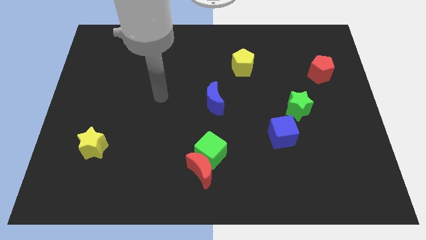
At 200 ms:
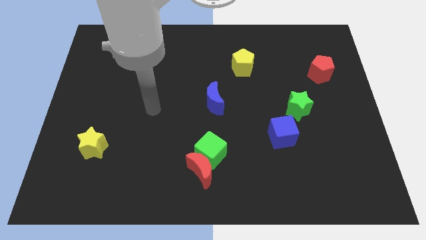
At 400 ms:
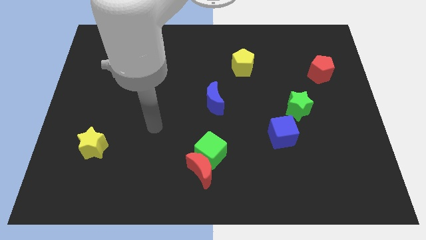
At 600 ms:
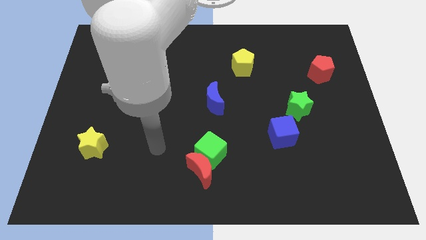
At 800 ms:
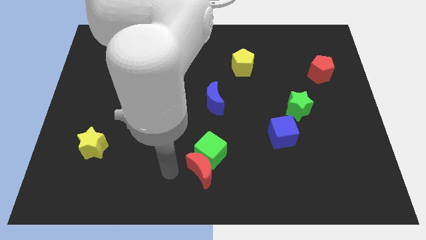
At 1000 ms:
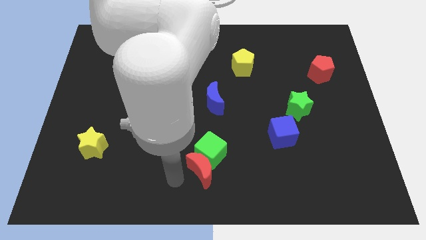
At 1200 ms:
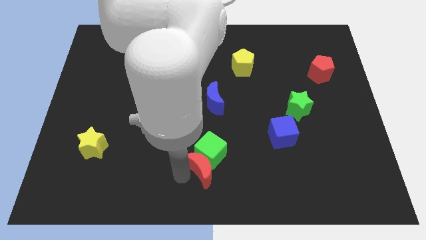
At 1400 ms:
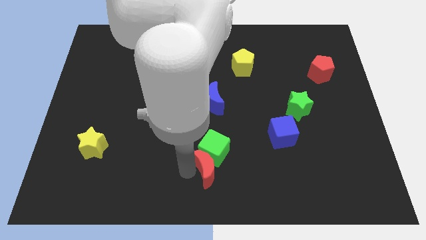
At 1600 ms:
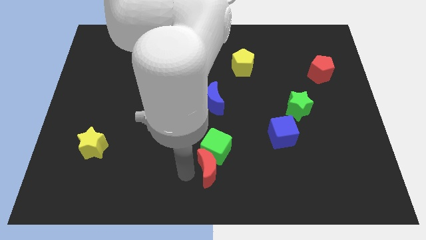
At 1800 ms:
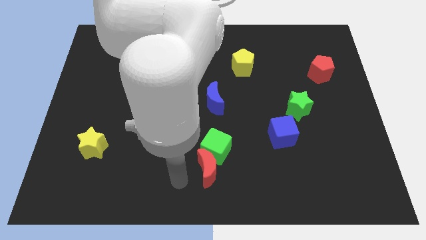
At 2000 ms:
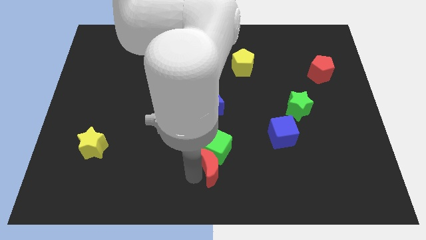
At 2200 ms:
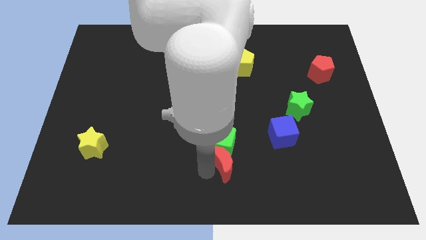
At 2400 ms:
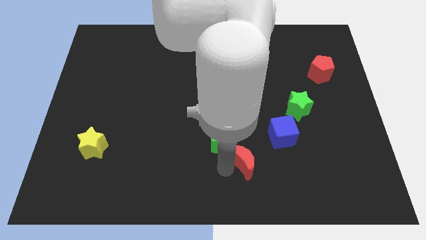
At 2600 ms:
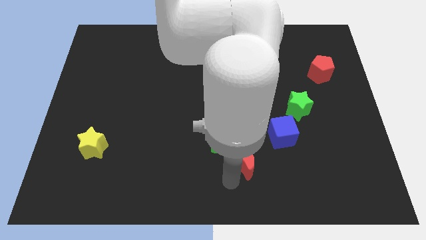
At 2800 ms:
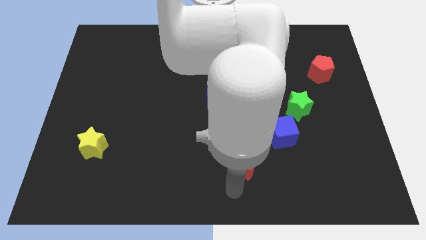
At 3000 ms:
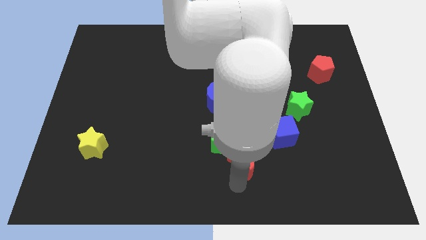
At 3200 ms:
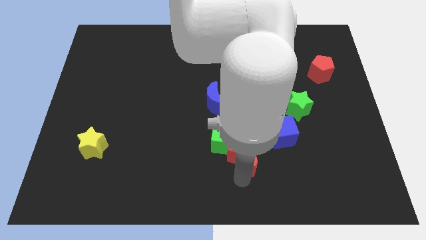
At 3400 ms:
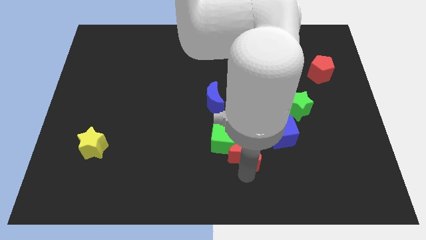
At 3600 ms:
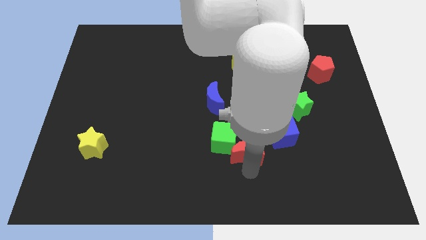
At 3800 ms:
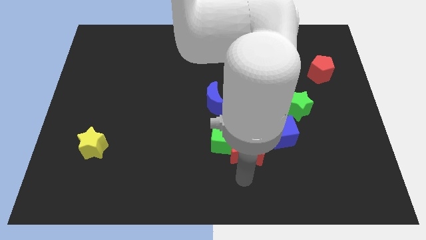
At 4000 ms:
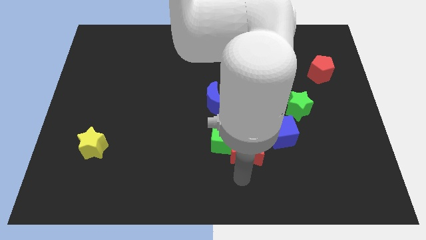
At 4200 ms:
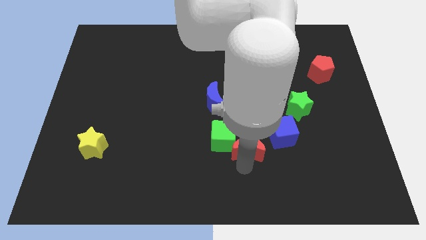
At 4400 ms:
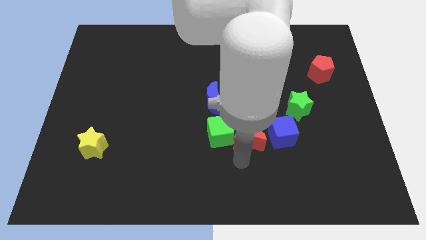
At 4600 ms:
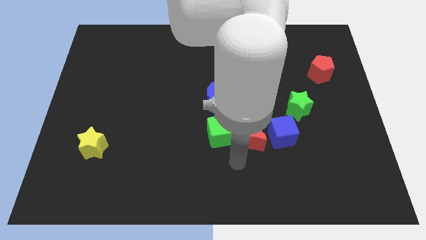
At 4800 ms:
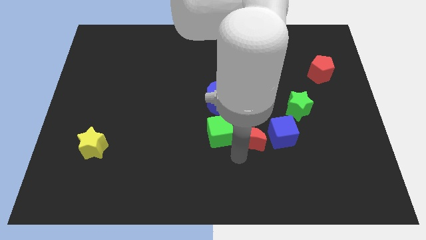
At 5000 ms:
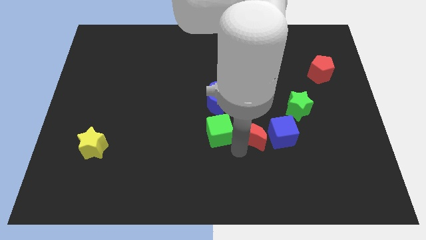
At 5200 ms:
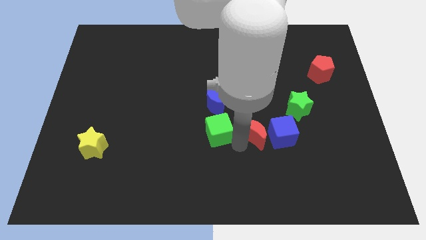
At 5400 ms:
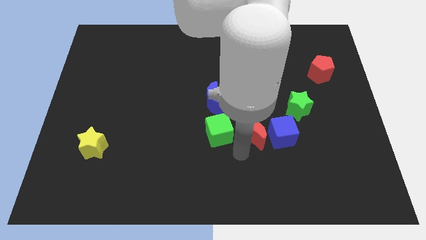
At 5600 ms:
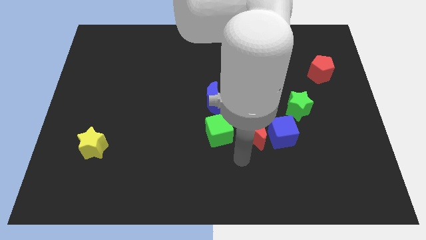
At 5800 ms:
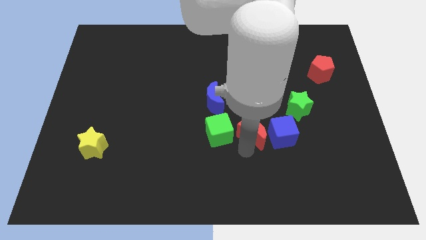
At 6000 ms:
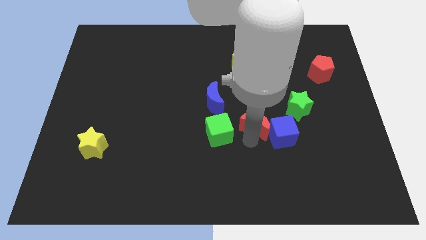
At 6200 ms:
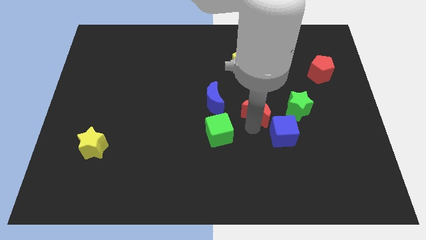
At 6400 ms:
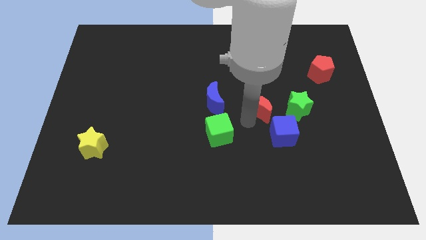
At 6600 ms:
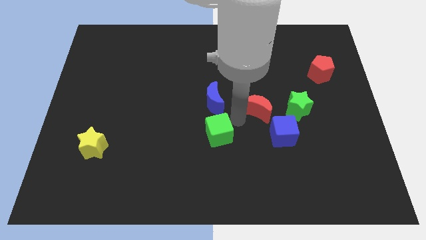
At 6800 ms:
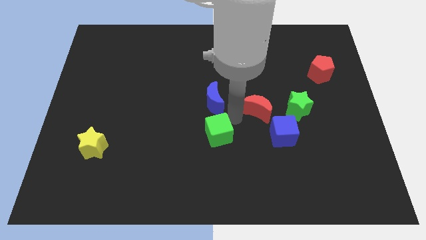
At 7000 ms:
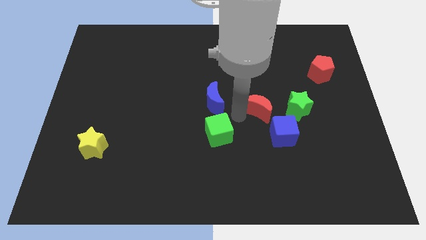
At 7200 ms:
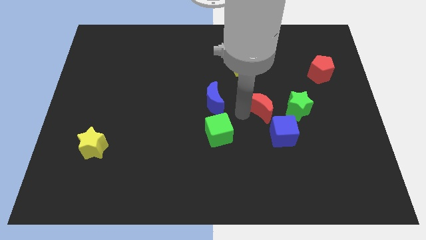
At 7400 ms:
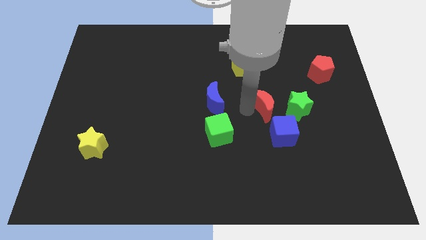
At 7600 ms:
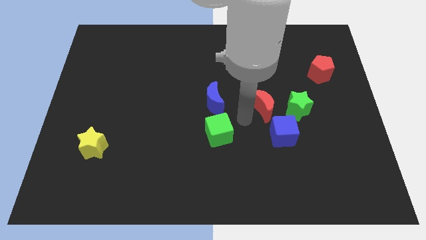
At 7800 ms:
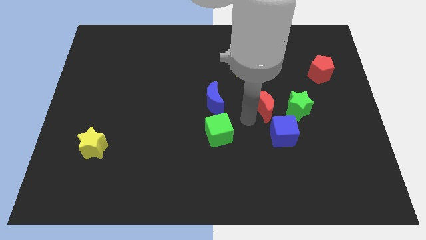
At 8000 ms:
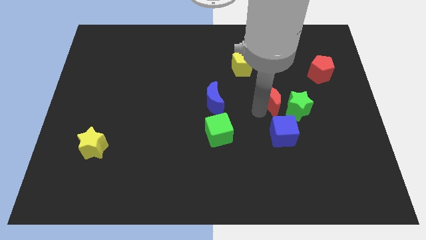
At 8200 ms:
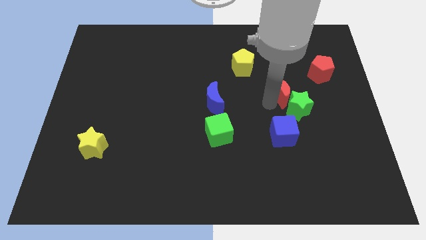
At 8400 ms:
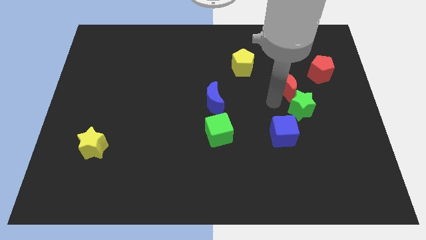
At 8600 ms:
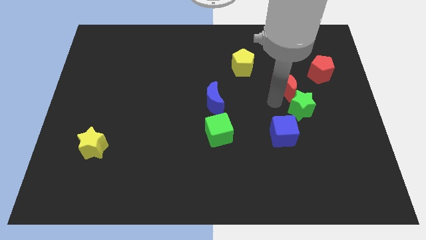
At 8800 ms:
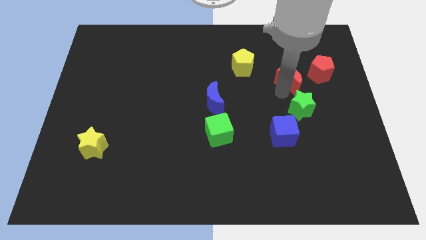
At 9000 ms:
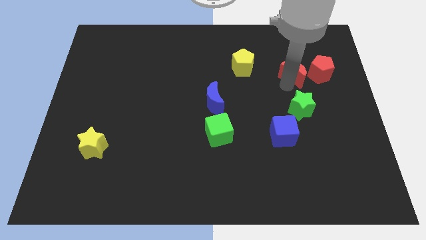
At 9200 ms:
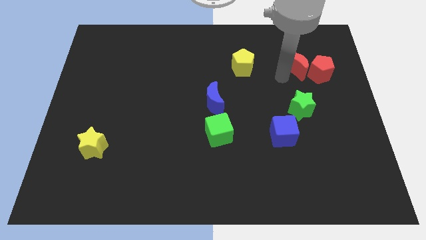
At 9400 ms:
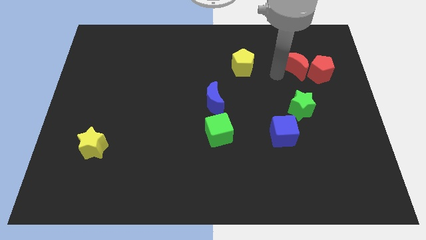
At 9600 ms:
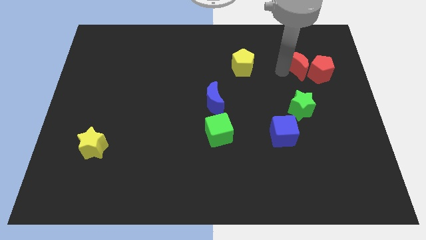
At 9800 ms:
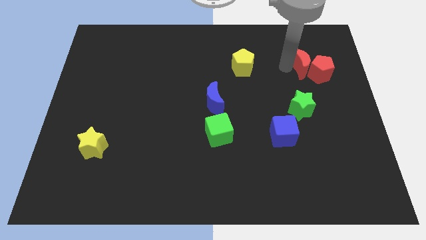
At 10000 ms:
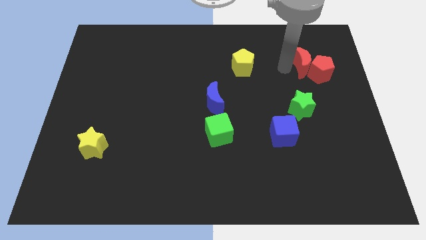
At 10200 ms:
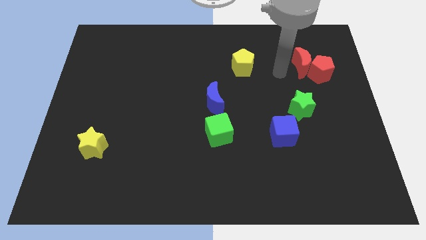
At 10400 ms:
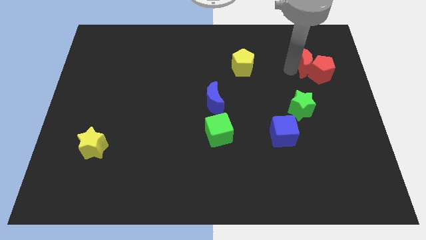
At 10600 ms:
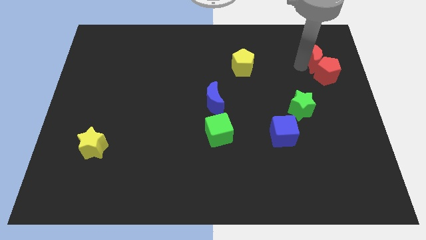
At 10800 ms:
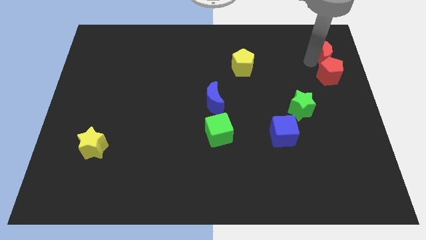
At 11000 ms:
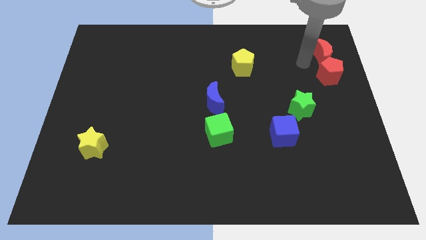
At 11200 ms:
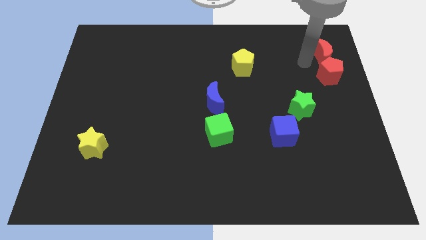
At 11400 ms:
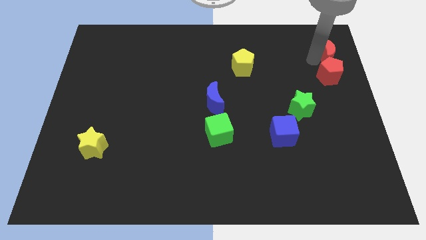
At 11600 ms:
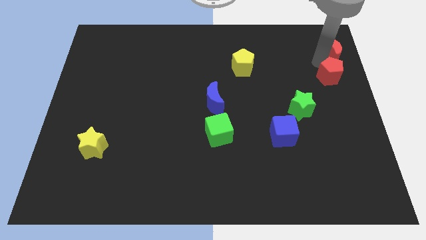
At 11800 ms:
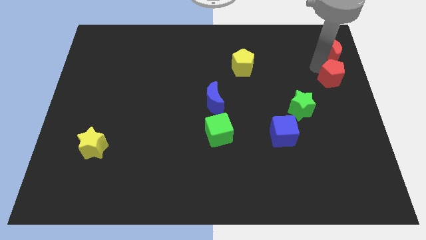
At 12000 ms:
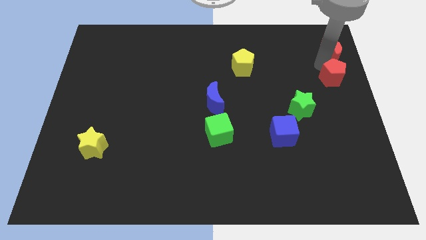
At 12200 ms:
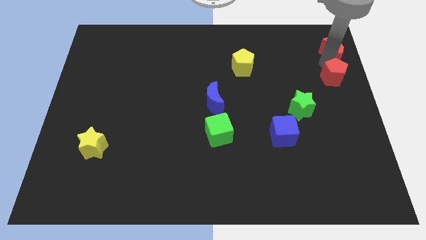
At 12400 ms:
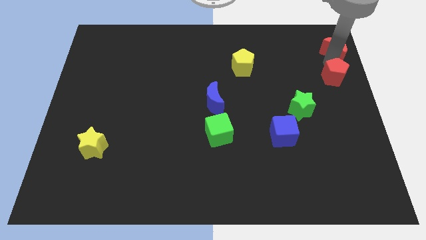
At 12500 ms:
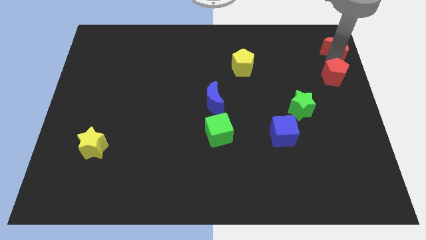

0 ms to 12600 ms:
push the red moon to the top right

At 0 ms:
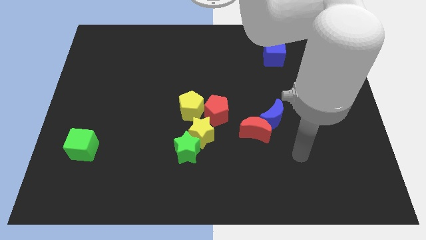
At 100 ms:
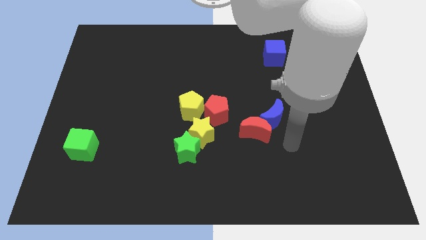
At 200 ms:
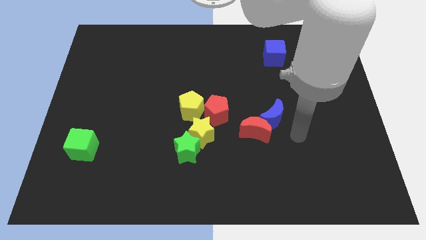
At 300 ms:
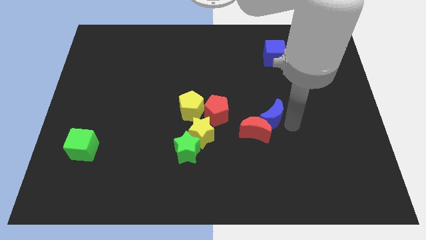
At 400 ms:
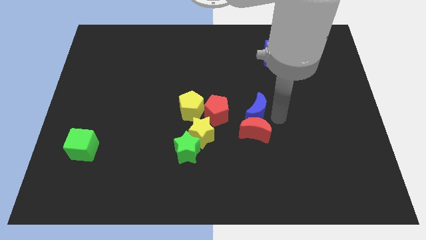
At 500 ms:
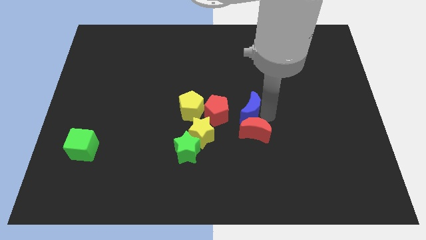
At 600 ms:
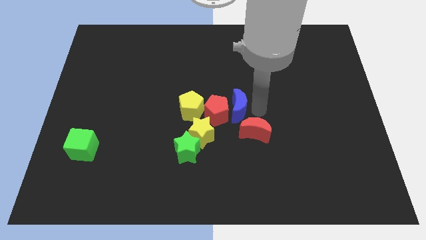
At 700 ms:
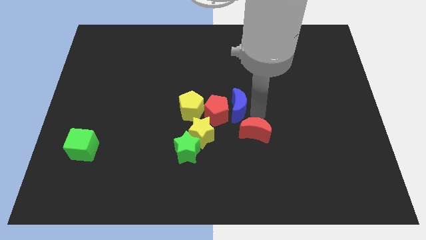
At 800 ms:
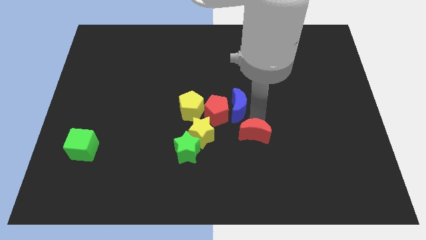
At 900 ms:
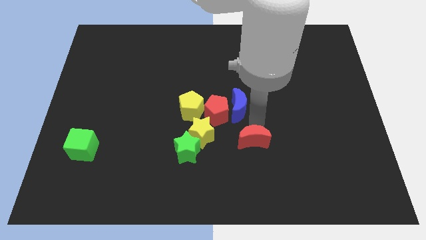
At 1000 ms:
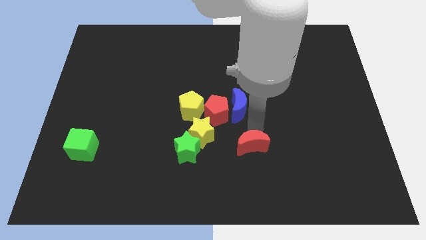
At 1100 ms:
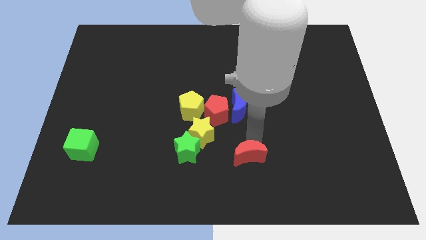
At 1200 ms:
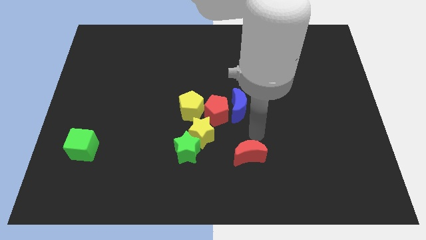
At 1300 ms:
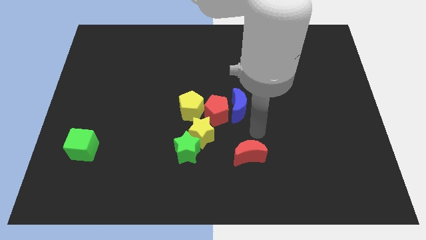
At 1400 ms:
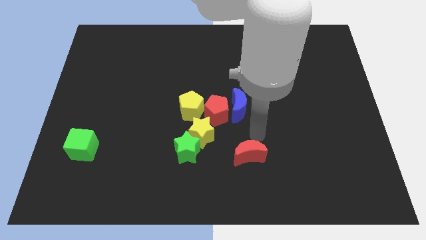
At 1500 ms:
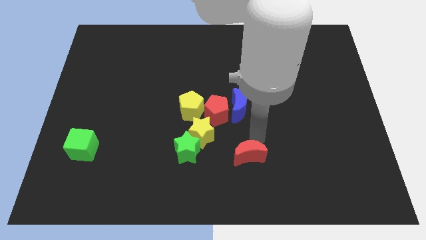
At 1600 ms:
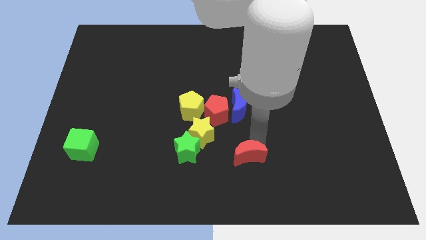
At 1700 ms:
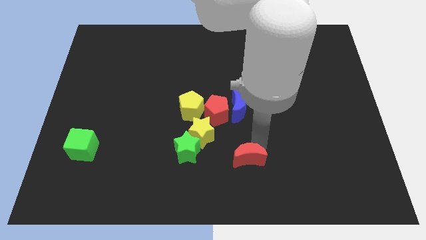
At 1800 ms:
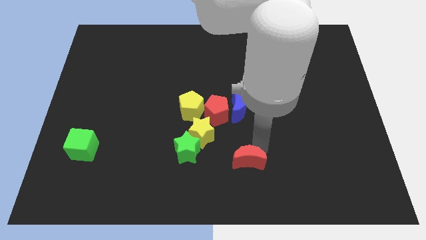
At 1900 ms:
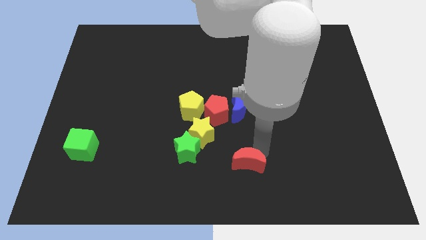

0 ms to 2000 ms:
move the red moon to the bottom side
